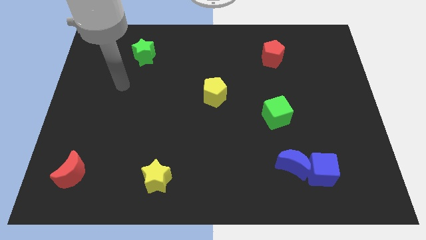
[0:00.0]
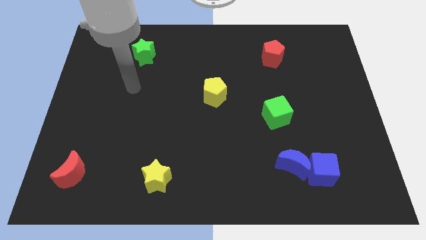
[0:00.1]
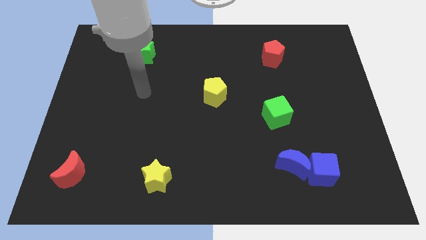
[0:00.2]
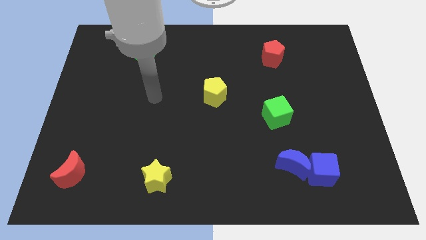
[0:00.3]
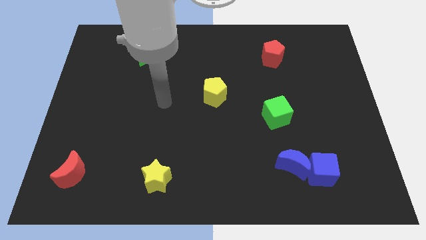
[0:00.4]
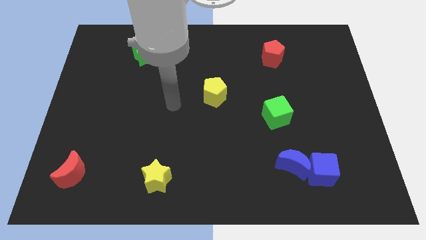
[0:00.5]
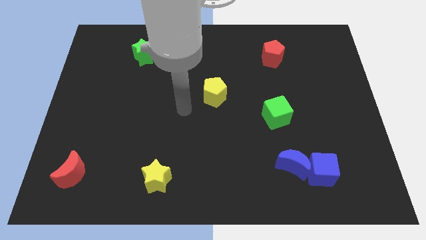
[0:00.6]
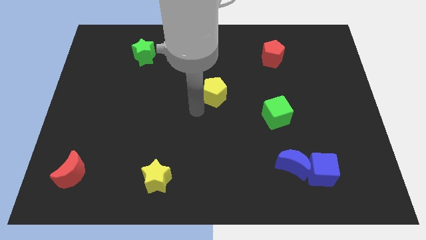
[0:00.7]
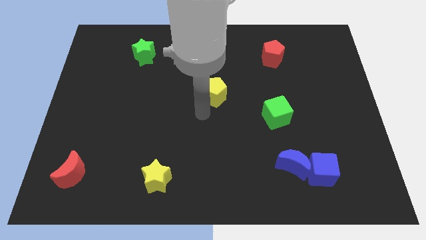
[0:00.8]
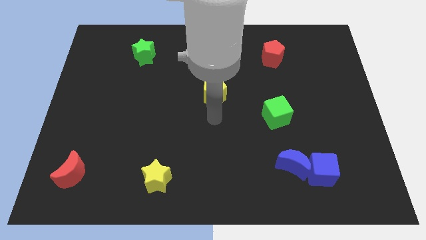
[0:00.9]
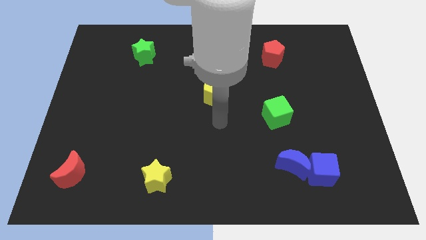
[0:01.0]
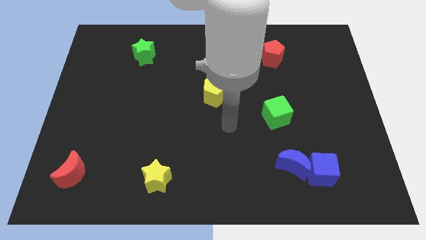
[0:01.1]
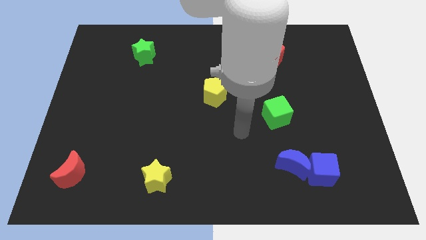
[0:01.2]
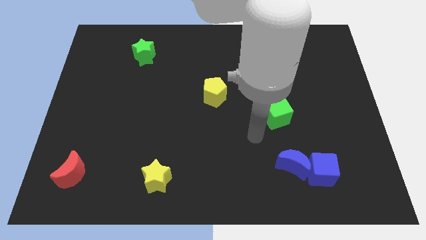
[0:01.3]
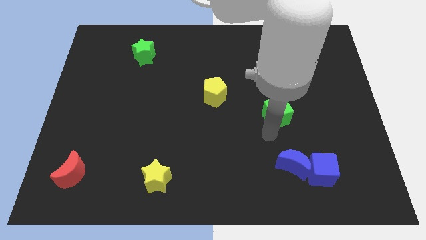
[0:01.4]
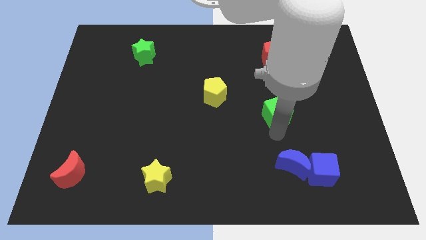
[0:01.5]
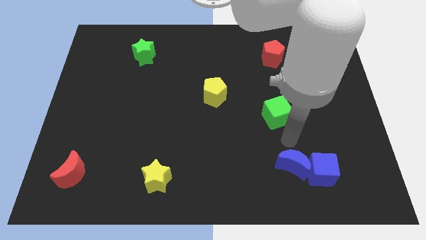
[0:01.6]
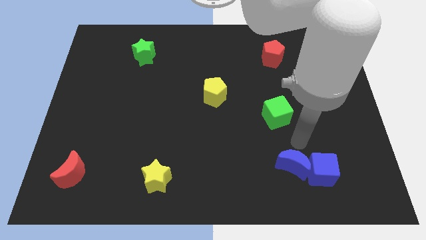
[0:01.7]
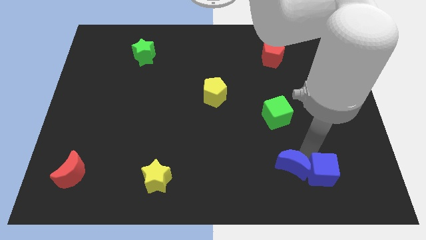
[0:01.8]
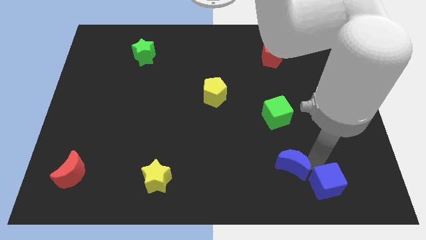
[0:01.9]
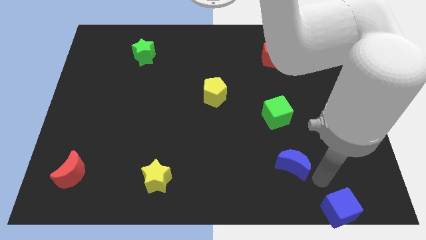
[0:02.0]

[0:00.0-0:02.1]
pull the blue moon apart from the blue cube

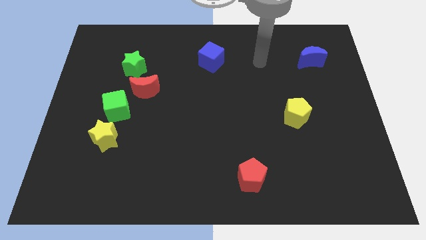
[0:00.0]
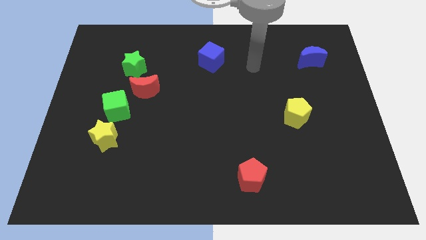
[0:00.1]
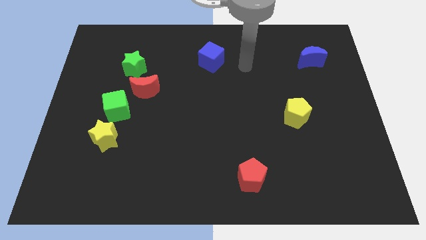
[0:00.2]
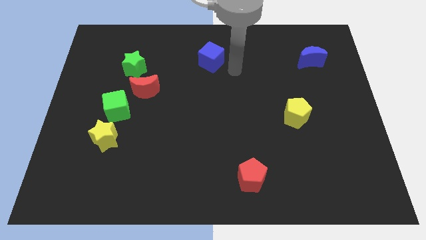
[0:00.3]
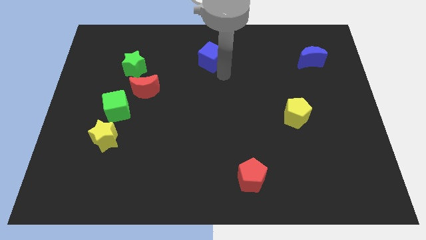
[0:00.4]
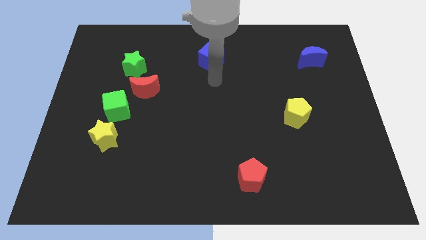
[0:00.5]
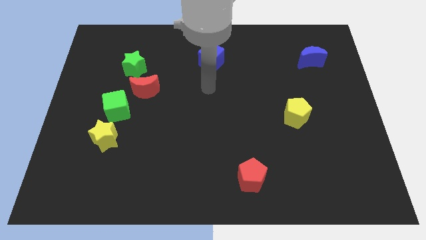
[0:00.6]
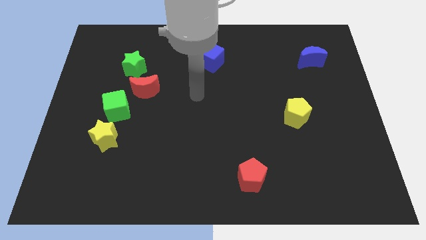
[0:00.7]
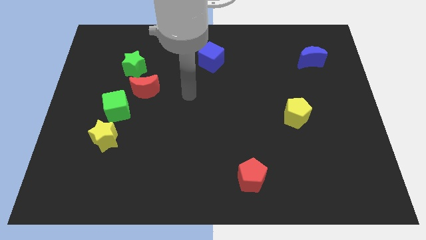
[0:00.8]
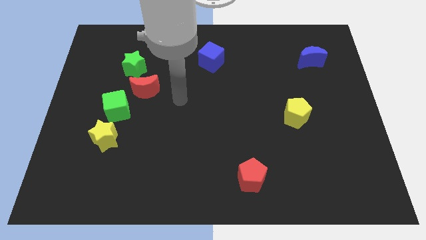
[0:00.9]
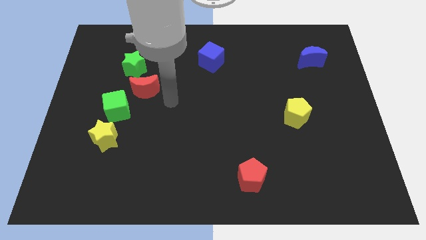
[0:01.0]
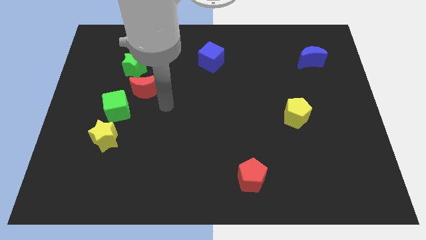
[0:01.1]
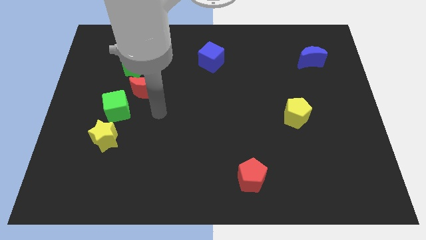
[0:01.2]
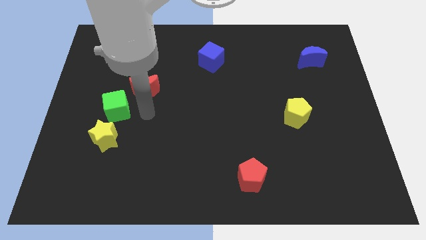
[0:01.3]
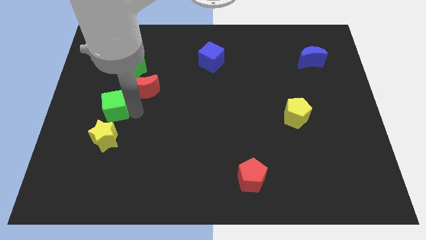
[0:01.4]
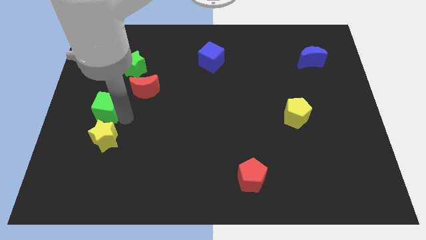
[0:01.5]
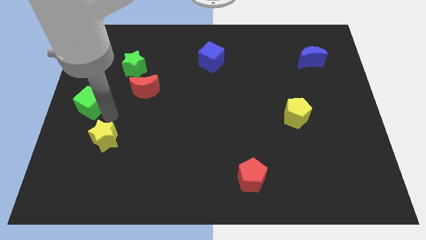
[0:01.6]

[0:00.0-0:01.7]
separate the yellow star from the green cube

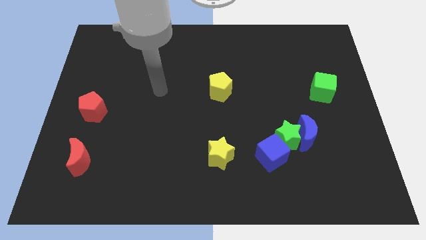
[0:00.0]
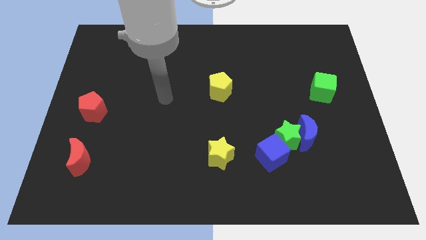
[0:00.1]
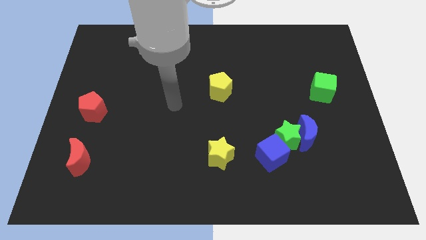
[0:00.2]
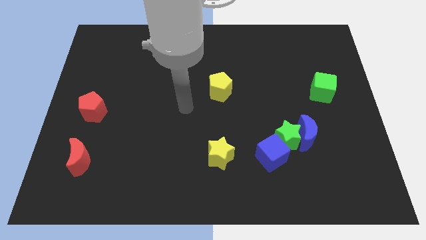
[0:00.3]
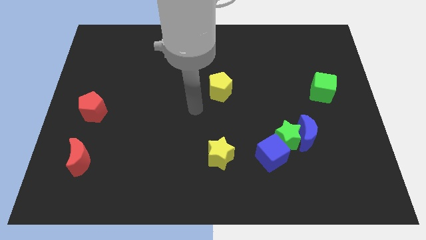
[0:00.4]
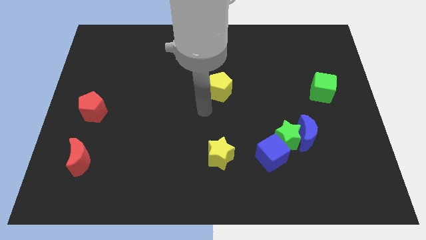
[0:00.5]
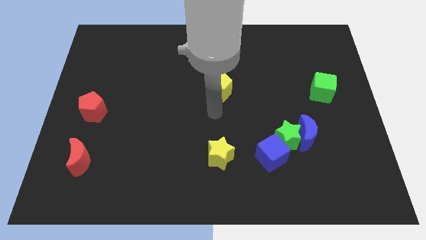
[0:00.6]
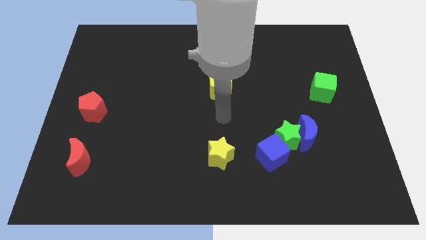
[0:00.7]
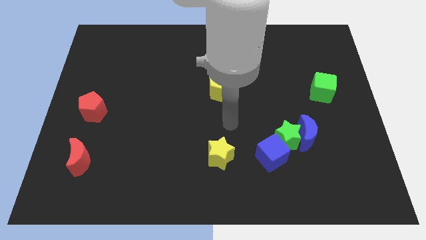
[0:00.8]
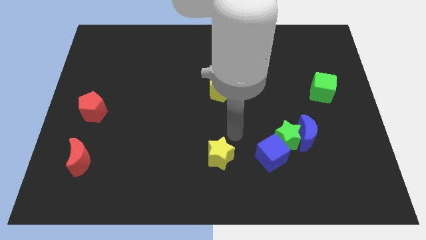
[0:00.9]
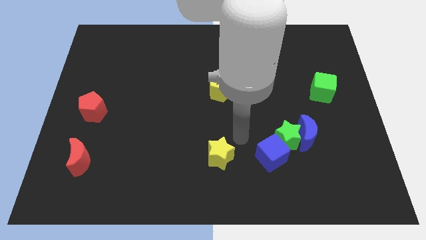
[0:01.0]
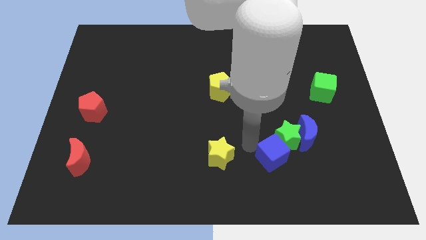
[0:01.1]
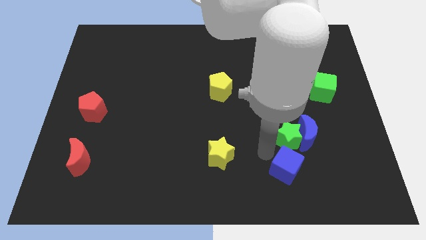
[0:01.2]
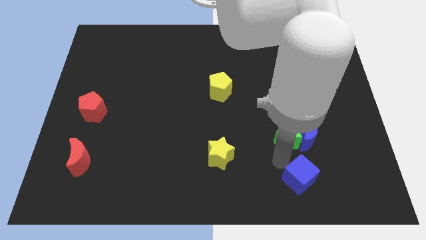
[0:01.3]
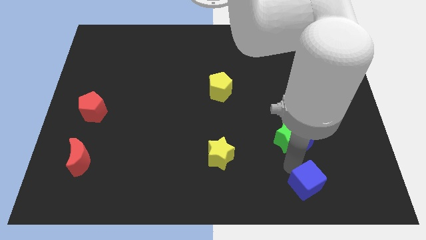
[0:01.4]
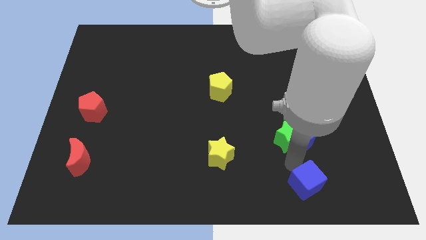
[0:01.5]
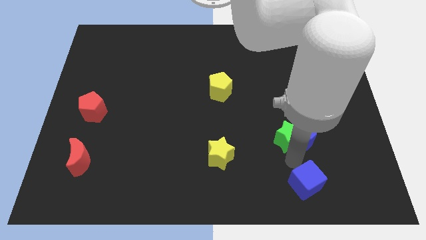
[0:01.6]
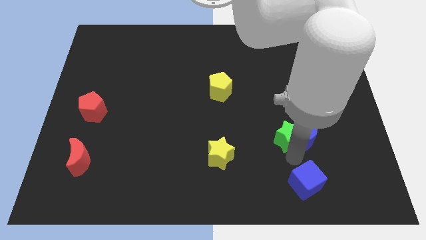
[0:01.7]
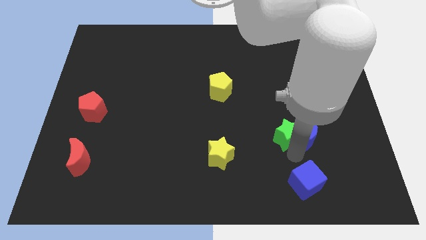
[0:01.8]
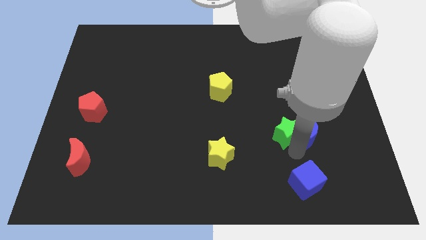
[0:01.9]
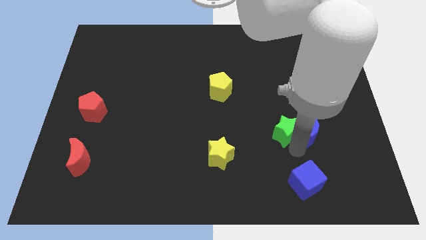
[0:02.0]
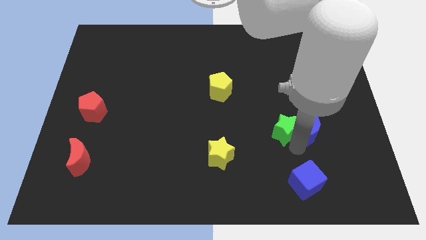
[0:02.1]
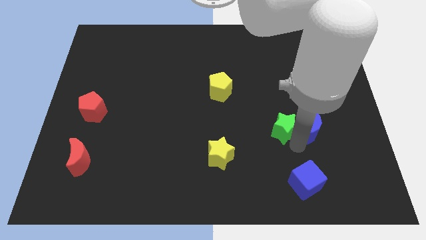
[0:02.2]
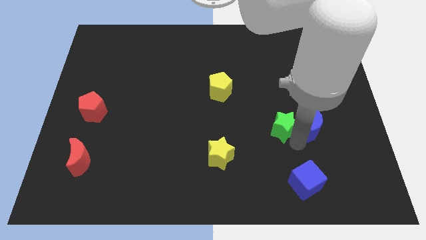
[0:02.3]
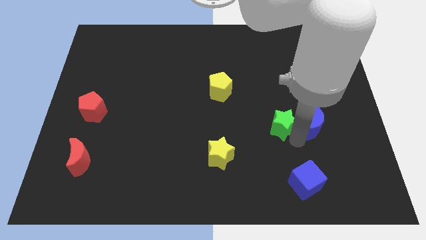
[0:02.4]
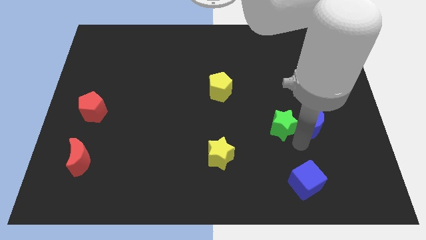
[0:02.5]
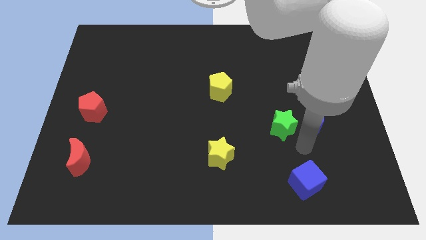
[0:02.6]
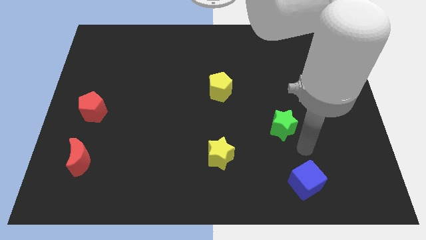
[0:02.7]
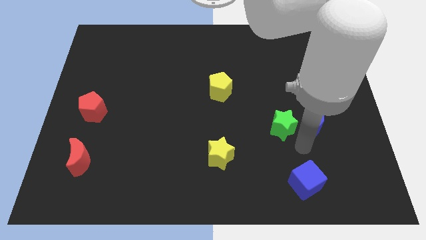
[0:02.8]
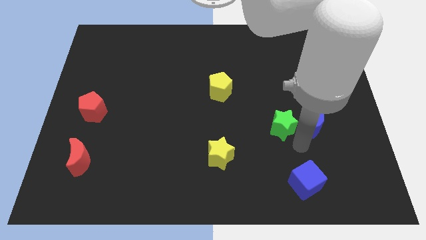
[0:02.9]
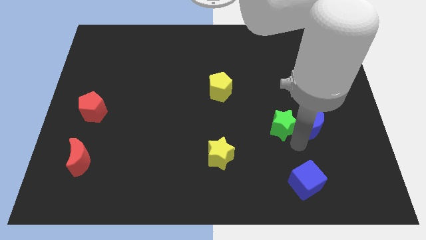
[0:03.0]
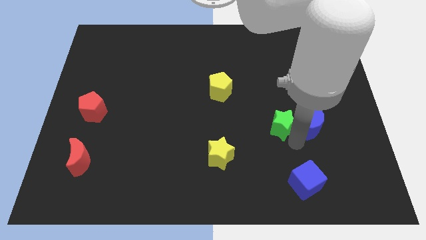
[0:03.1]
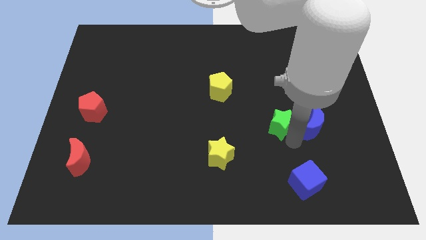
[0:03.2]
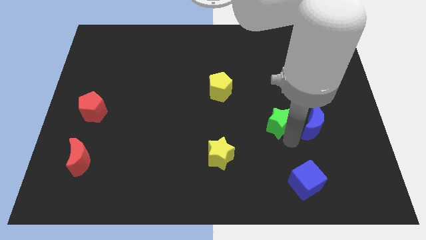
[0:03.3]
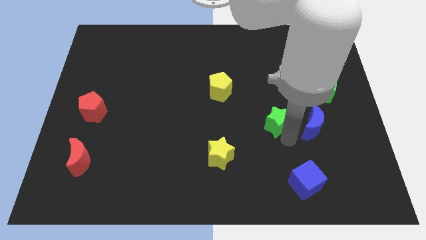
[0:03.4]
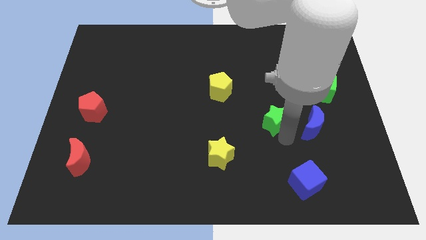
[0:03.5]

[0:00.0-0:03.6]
move the green star away from the blue moon and blue cube

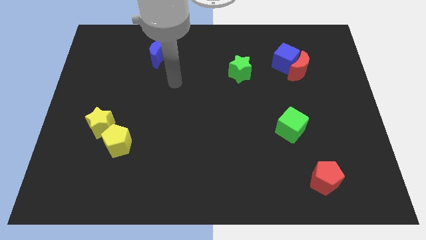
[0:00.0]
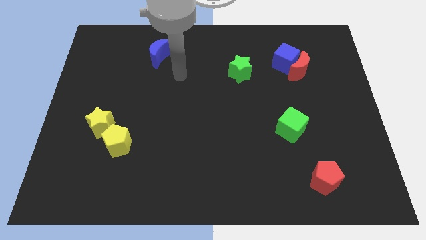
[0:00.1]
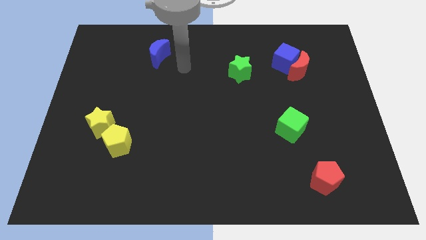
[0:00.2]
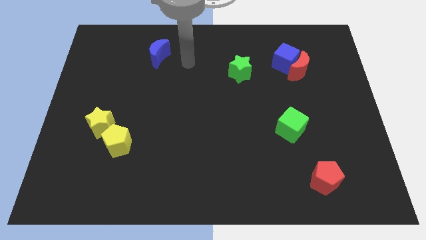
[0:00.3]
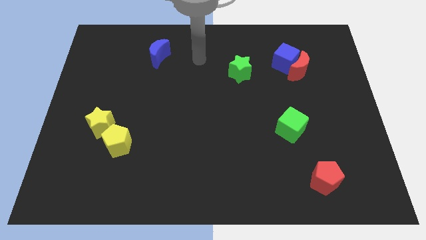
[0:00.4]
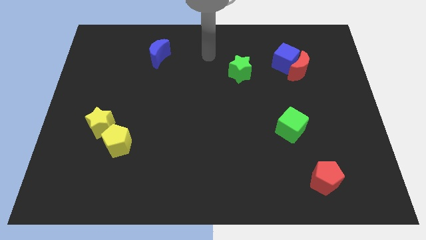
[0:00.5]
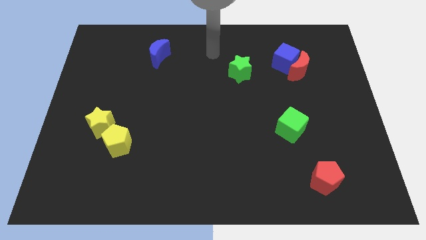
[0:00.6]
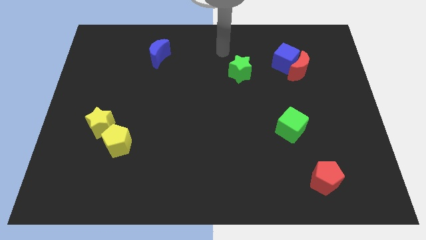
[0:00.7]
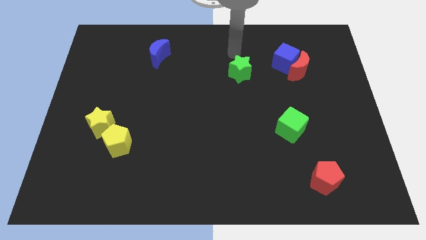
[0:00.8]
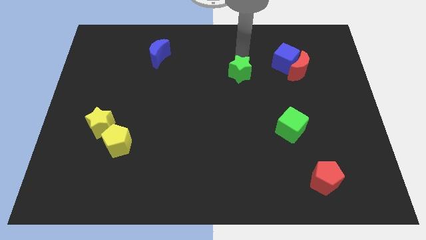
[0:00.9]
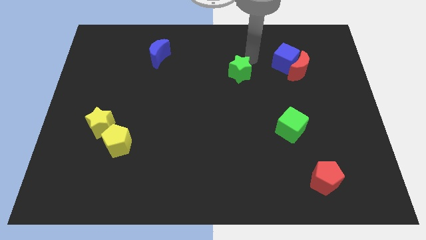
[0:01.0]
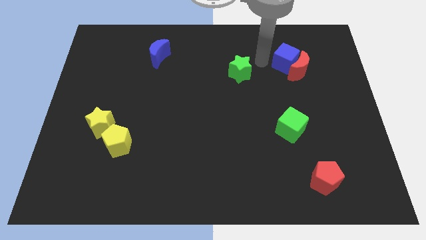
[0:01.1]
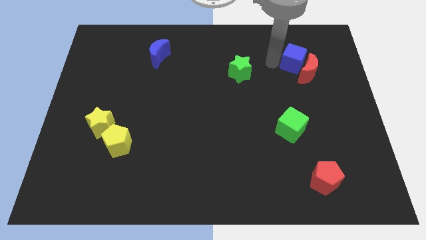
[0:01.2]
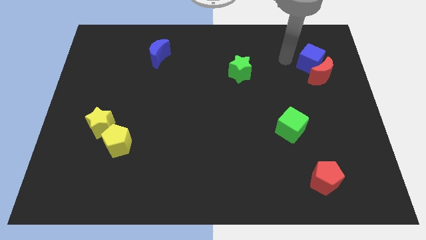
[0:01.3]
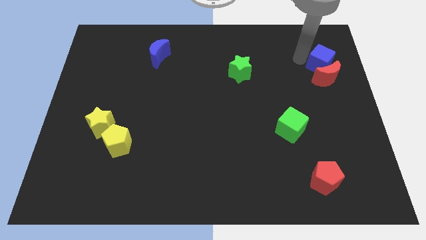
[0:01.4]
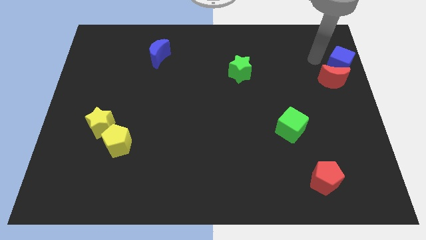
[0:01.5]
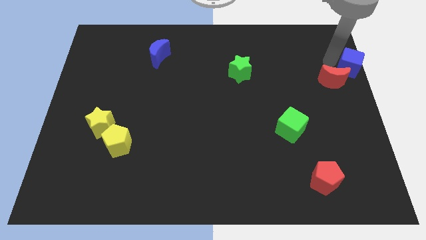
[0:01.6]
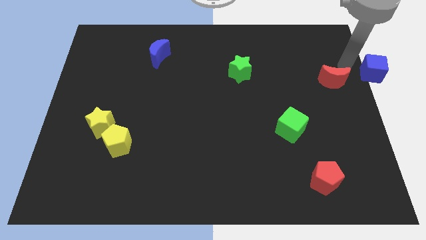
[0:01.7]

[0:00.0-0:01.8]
separate the red moon from the blue cube

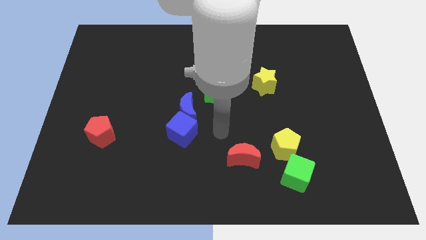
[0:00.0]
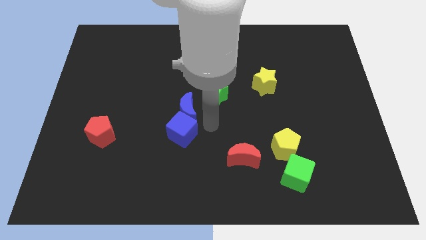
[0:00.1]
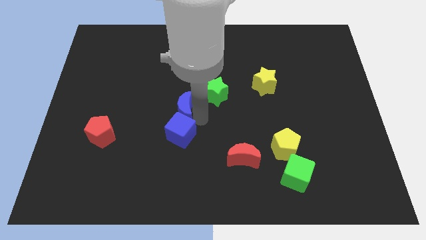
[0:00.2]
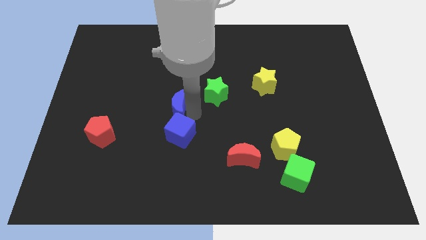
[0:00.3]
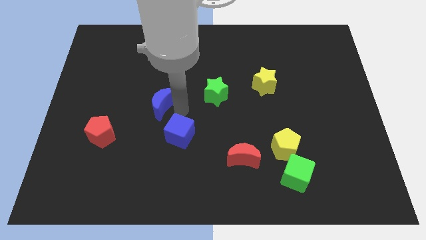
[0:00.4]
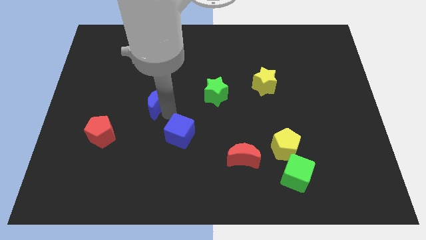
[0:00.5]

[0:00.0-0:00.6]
move the blue cube away from the blue moon
